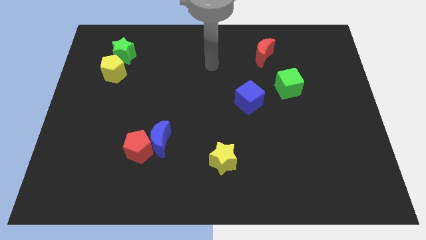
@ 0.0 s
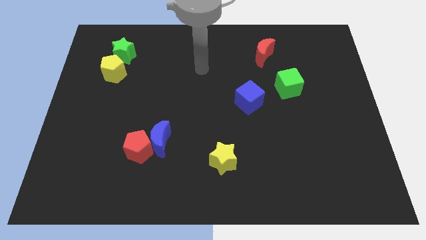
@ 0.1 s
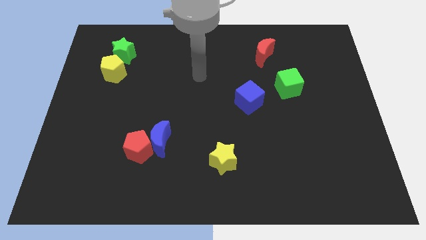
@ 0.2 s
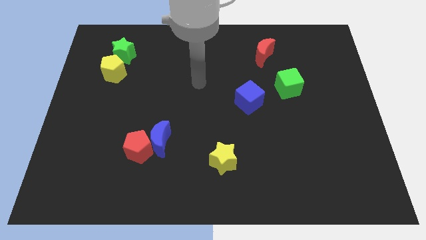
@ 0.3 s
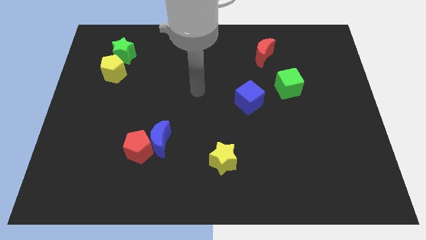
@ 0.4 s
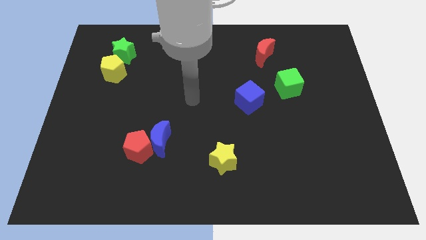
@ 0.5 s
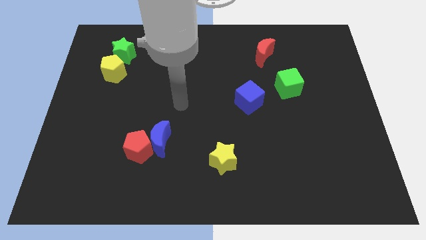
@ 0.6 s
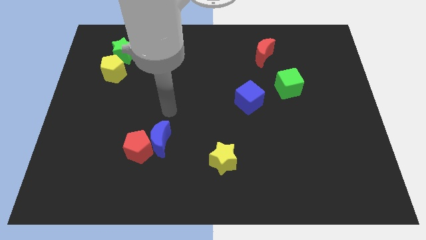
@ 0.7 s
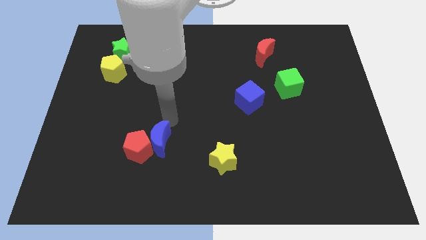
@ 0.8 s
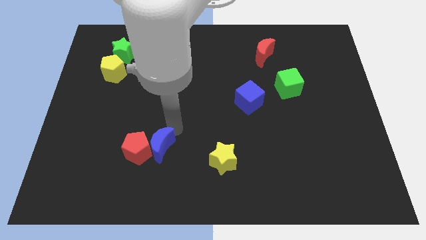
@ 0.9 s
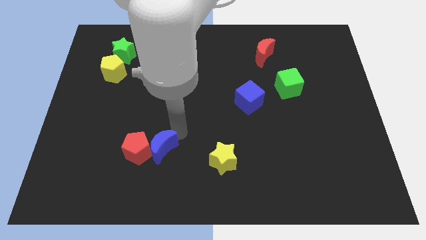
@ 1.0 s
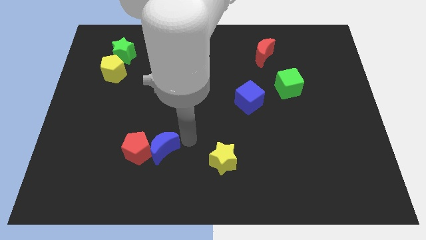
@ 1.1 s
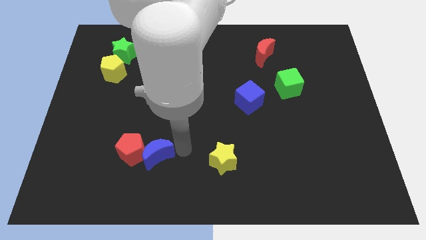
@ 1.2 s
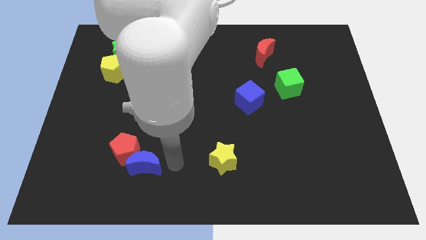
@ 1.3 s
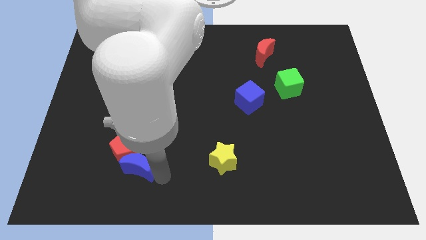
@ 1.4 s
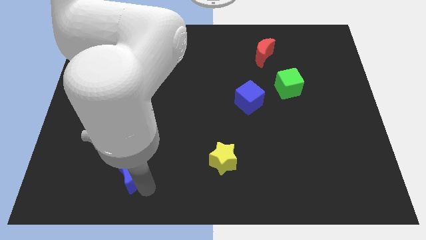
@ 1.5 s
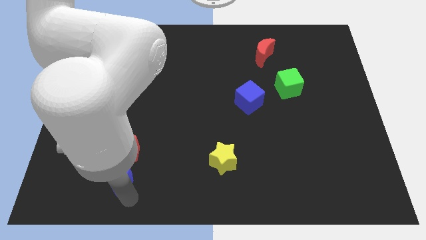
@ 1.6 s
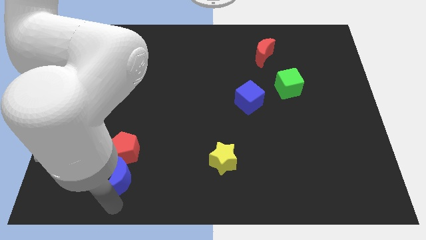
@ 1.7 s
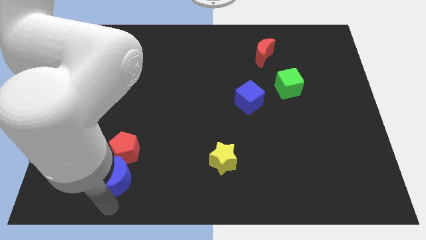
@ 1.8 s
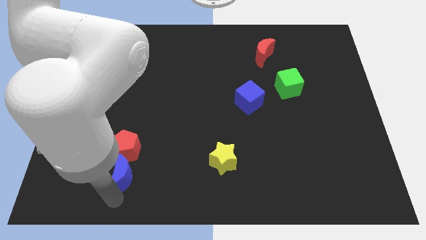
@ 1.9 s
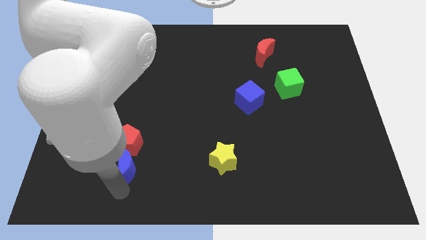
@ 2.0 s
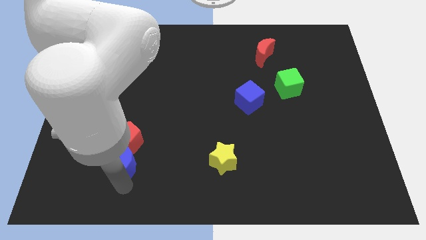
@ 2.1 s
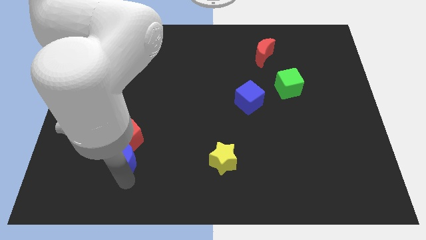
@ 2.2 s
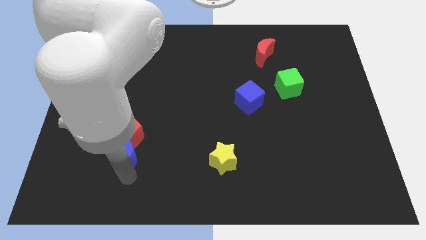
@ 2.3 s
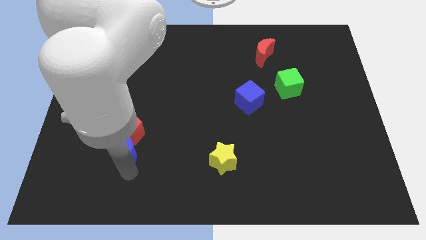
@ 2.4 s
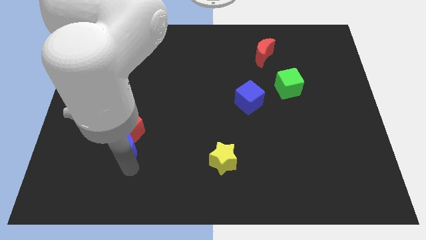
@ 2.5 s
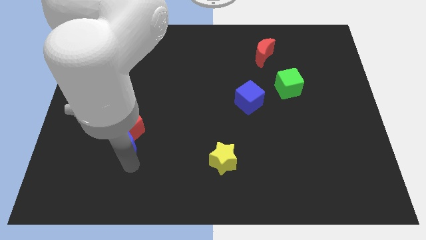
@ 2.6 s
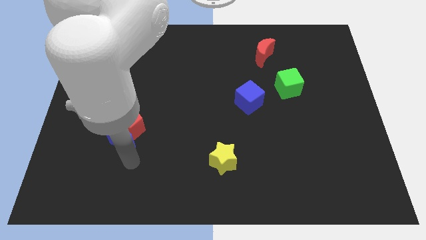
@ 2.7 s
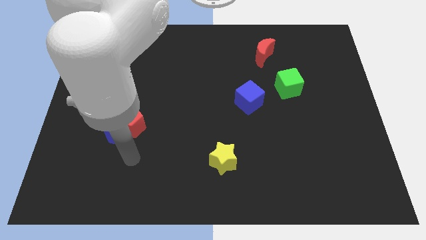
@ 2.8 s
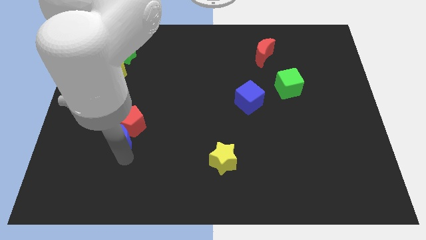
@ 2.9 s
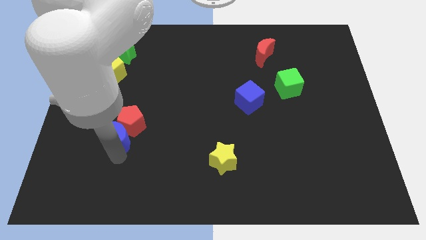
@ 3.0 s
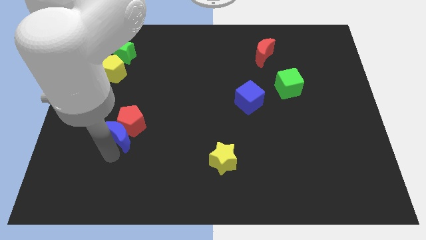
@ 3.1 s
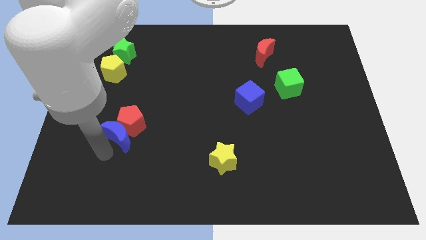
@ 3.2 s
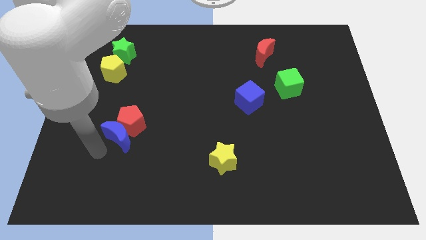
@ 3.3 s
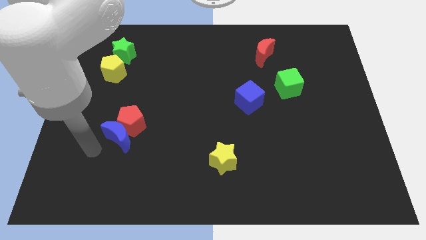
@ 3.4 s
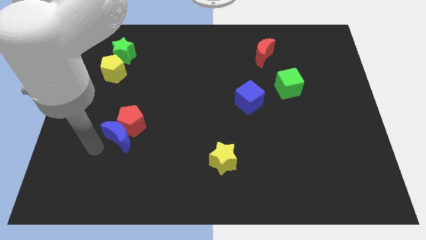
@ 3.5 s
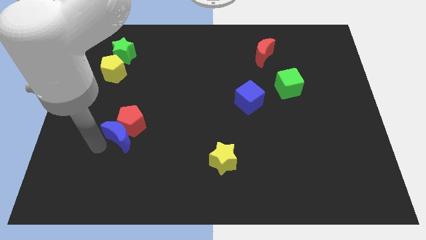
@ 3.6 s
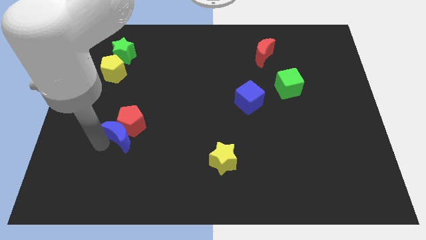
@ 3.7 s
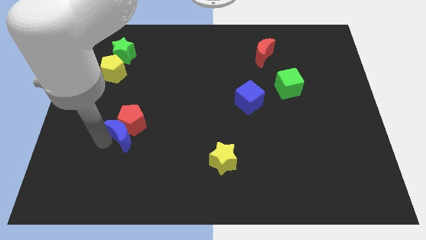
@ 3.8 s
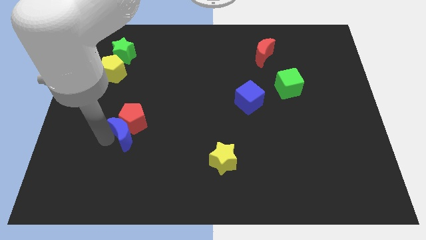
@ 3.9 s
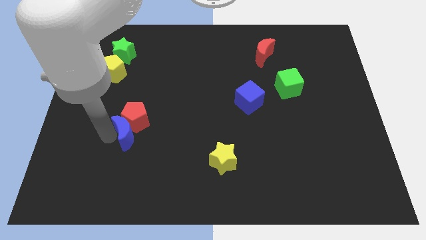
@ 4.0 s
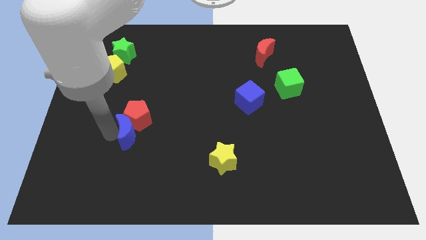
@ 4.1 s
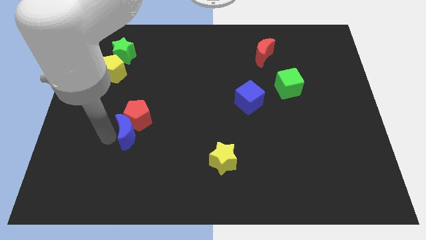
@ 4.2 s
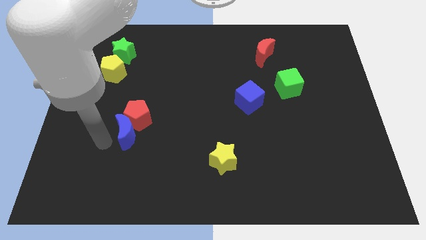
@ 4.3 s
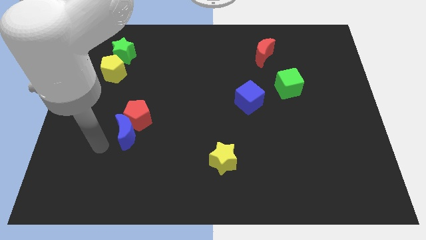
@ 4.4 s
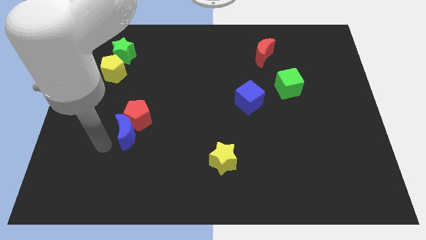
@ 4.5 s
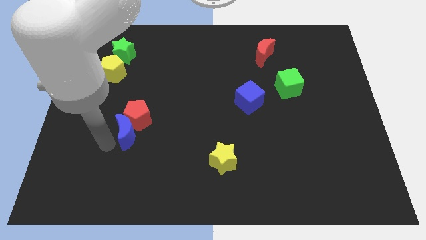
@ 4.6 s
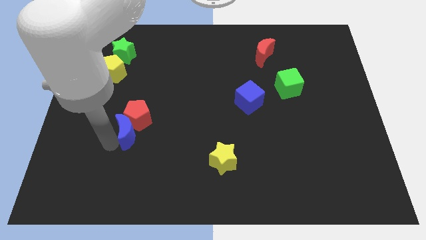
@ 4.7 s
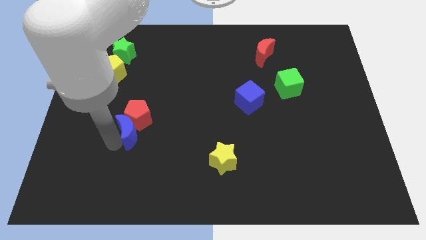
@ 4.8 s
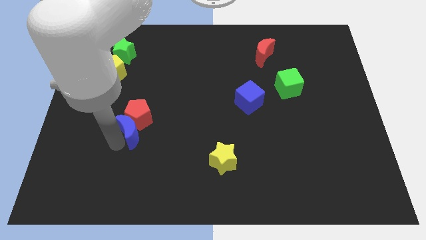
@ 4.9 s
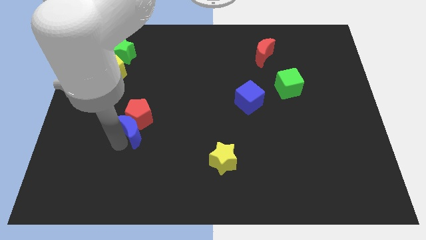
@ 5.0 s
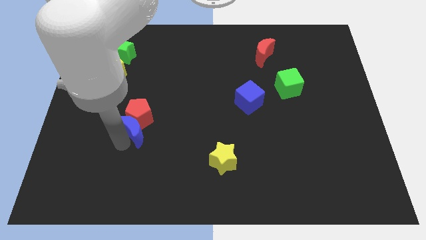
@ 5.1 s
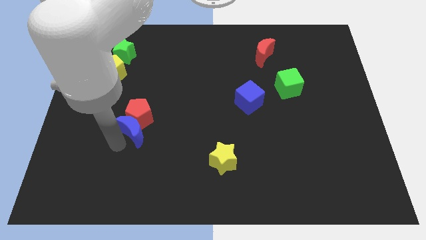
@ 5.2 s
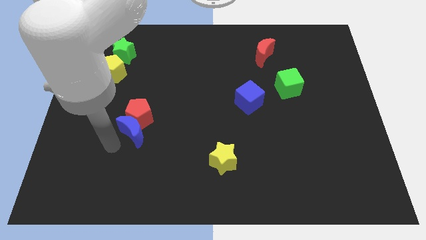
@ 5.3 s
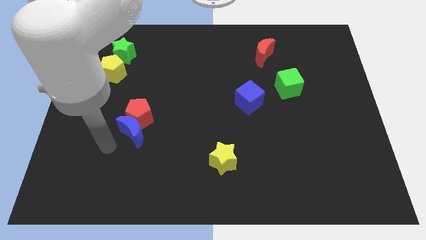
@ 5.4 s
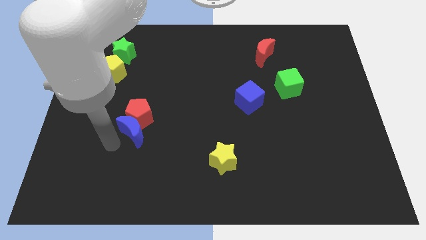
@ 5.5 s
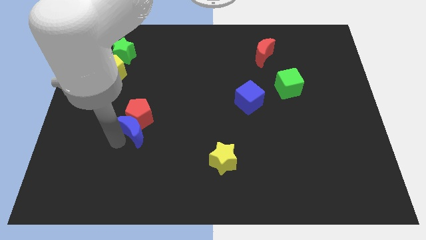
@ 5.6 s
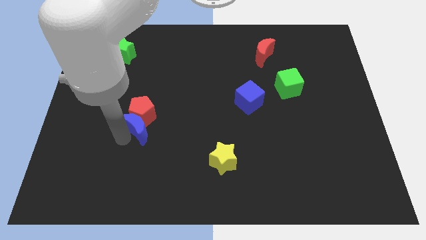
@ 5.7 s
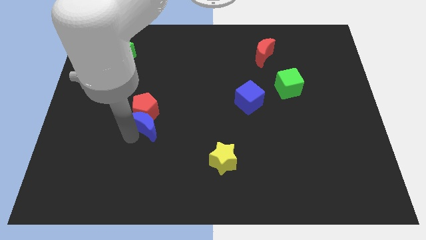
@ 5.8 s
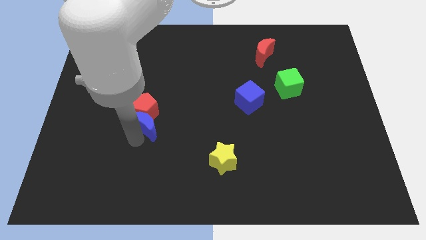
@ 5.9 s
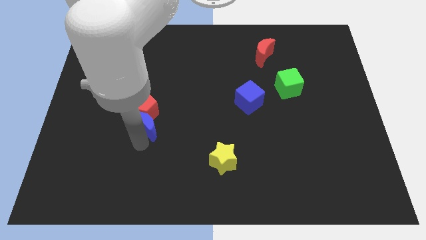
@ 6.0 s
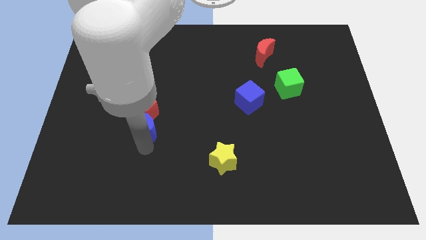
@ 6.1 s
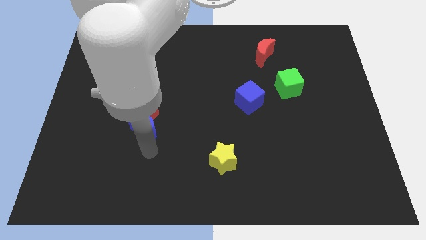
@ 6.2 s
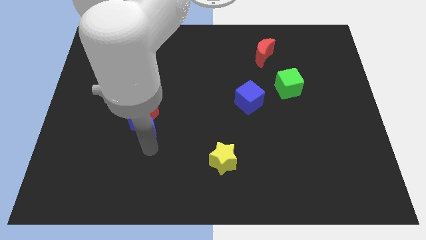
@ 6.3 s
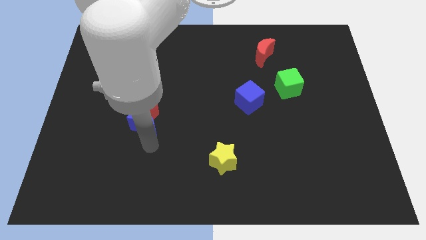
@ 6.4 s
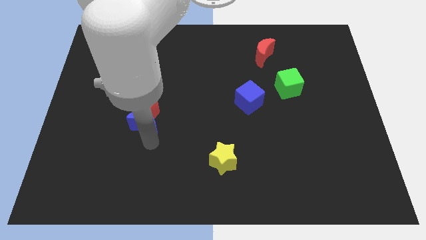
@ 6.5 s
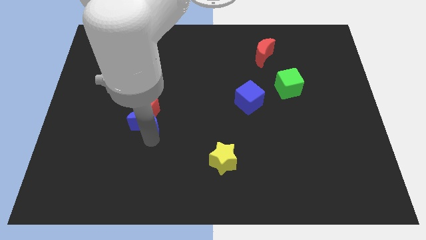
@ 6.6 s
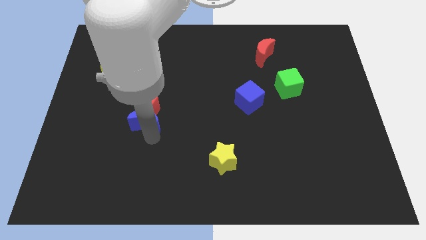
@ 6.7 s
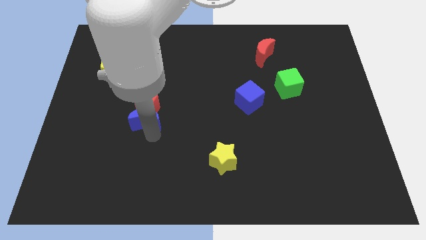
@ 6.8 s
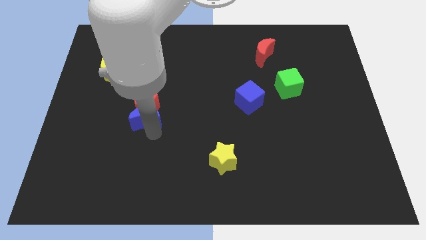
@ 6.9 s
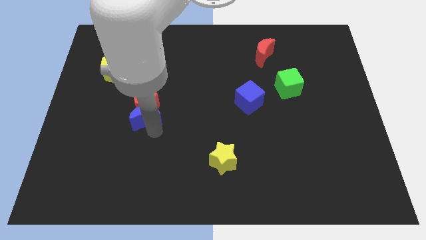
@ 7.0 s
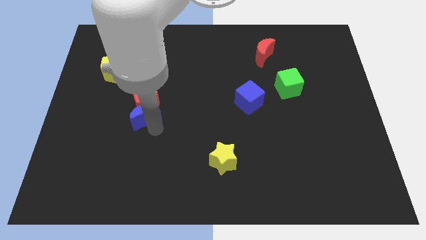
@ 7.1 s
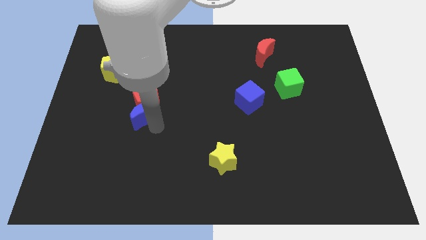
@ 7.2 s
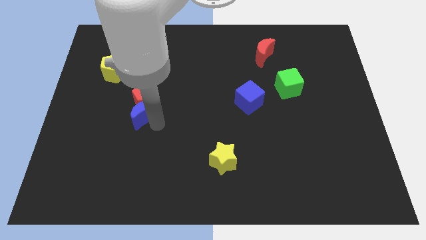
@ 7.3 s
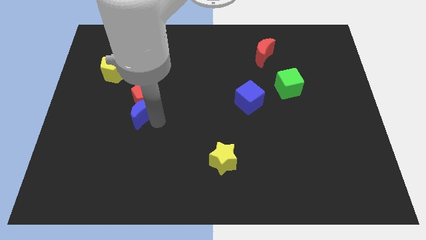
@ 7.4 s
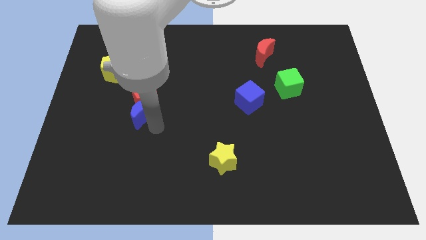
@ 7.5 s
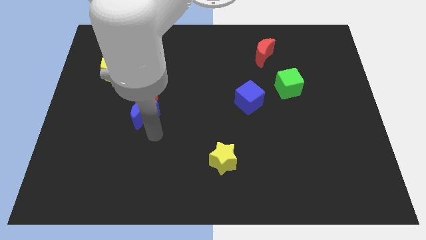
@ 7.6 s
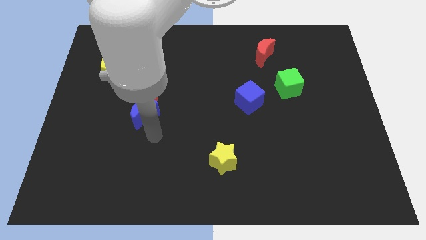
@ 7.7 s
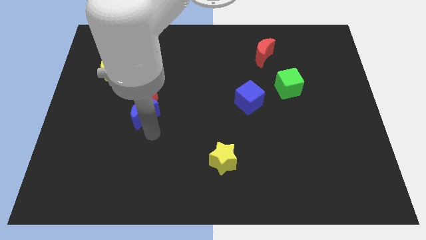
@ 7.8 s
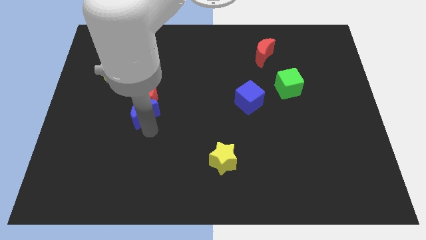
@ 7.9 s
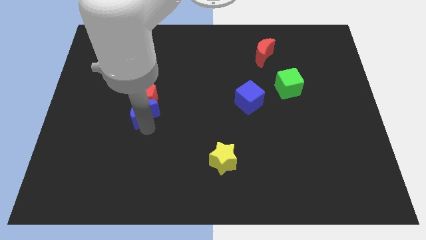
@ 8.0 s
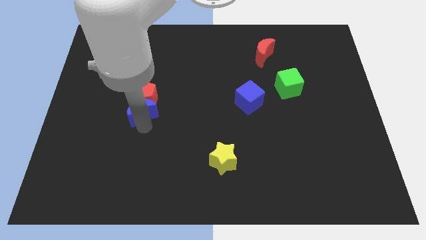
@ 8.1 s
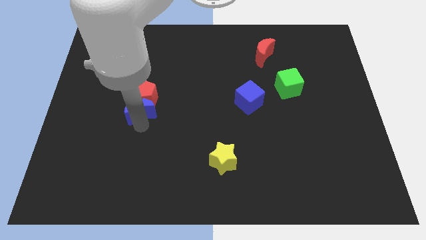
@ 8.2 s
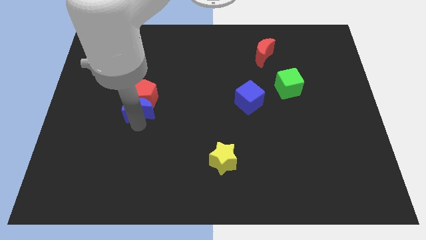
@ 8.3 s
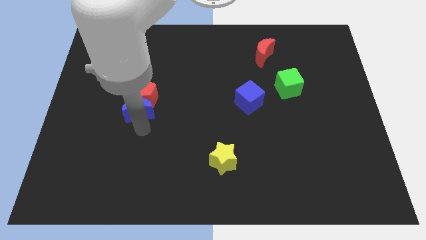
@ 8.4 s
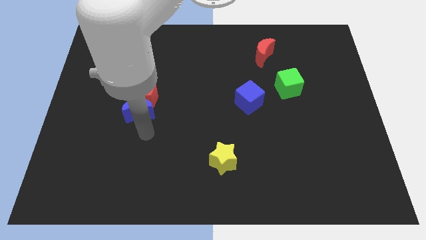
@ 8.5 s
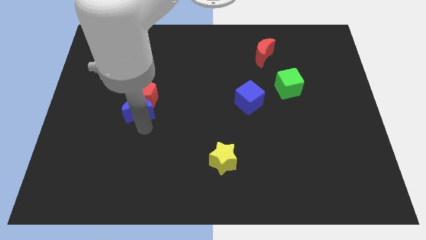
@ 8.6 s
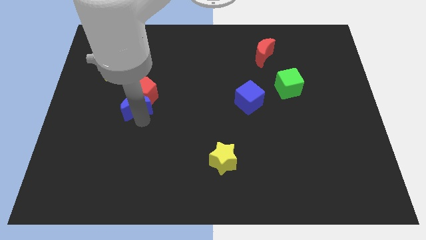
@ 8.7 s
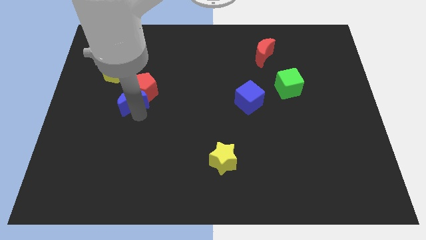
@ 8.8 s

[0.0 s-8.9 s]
put the blue moon diagonally down and to the right of the yellow pentagon
